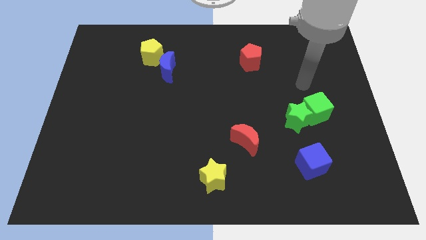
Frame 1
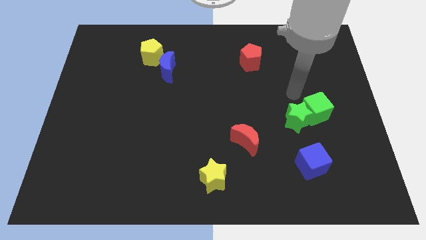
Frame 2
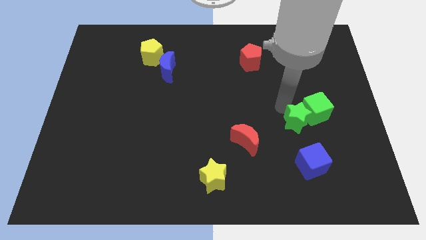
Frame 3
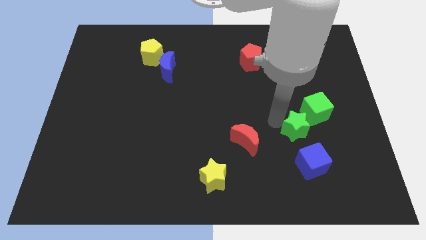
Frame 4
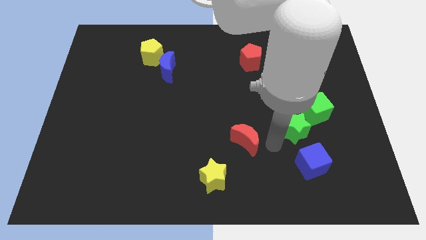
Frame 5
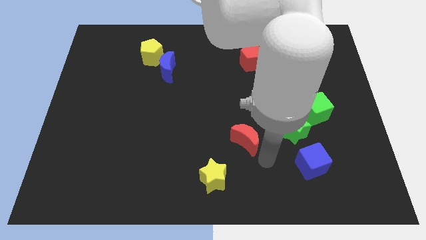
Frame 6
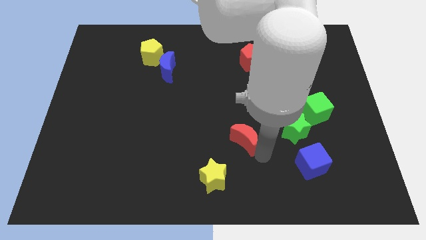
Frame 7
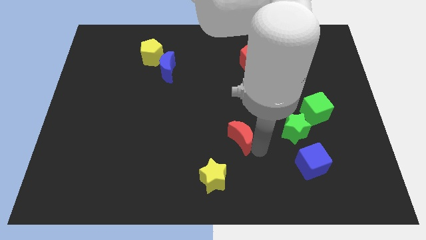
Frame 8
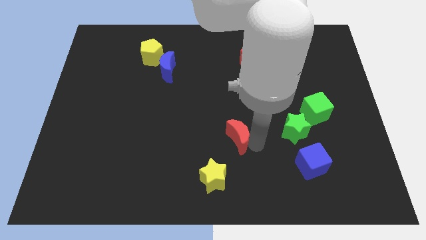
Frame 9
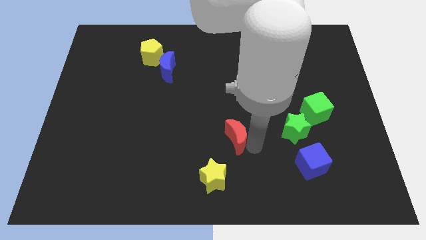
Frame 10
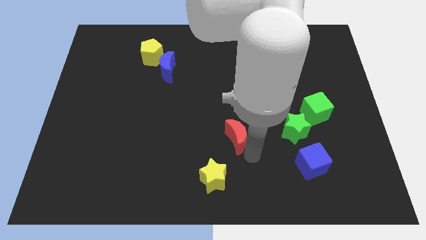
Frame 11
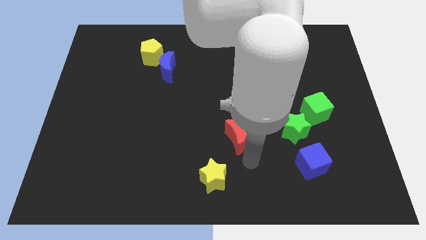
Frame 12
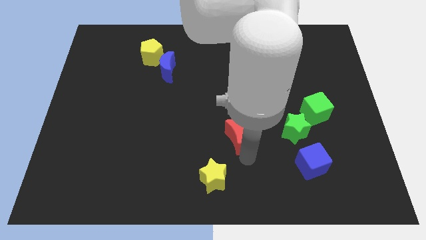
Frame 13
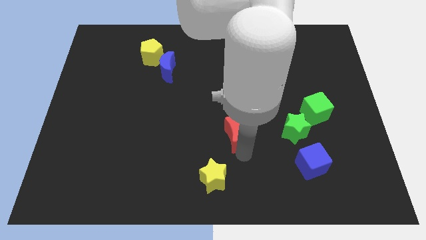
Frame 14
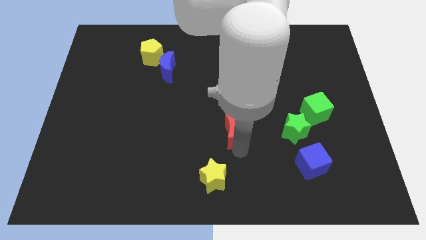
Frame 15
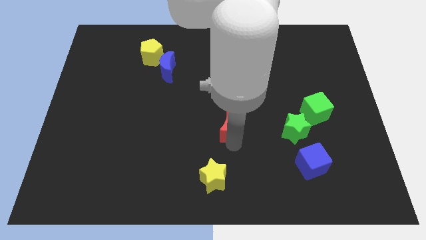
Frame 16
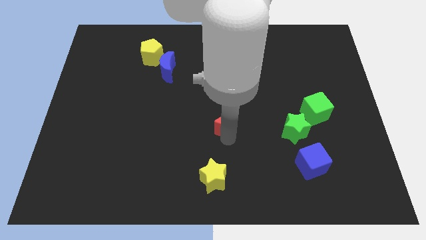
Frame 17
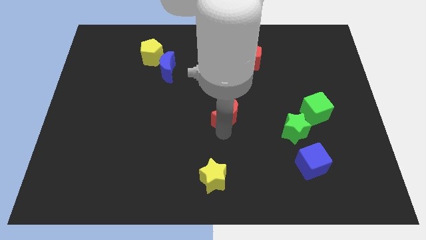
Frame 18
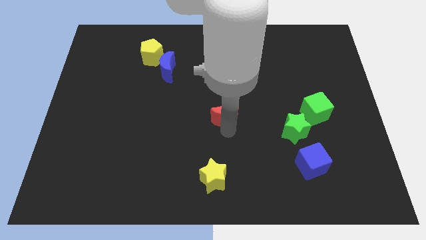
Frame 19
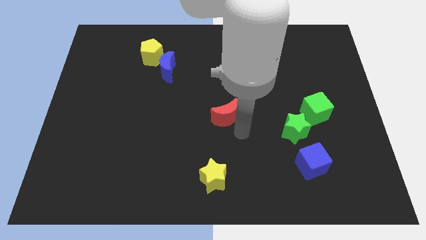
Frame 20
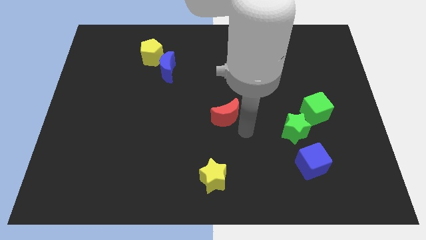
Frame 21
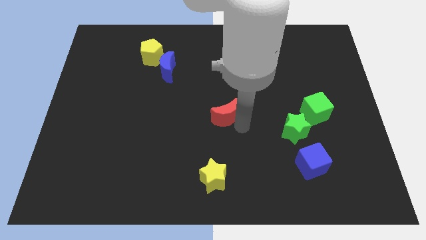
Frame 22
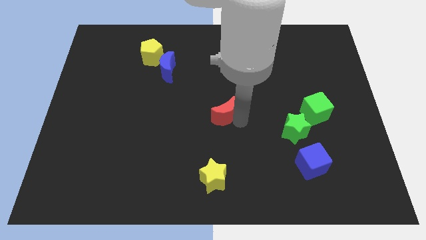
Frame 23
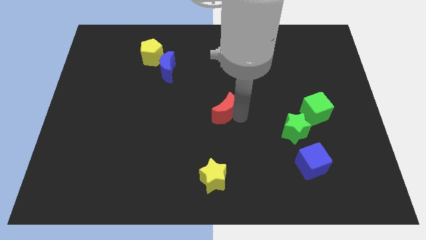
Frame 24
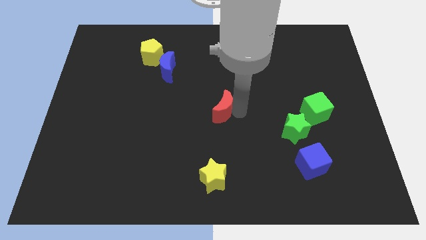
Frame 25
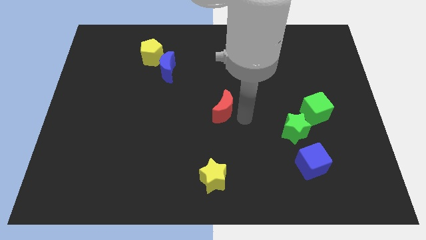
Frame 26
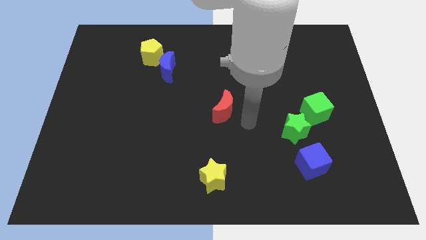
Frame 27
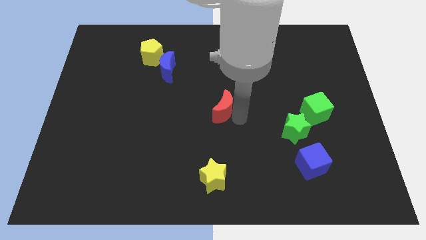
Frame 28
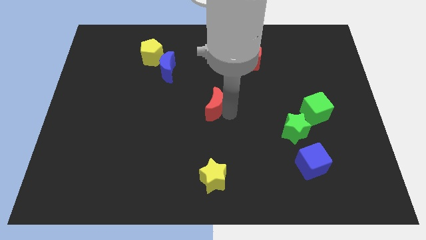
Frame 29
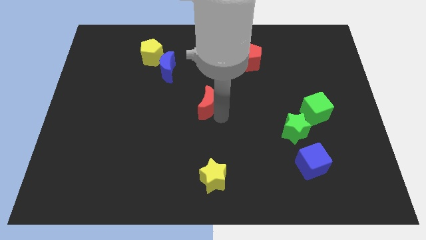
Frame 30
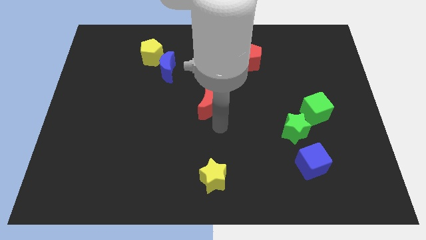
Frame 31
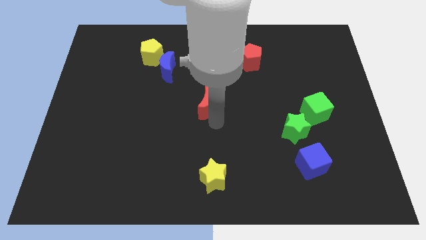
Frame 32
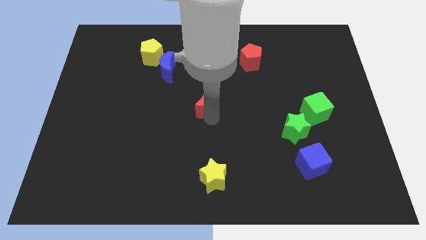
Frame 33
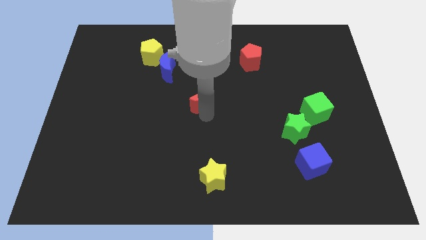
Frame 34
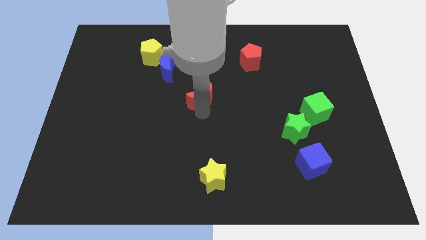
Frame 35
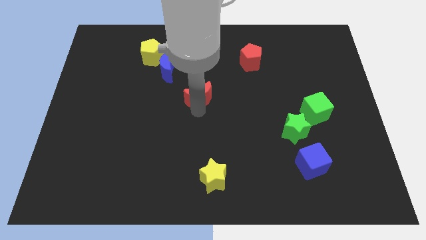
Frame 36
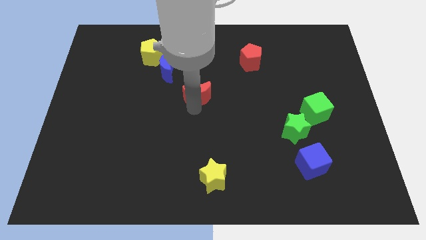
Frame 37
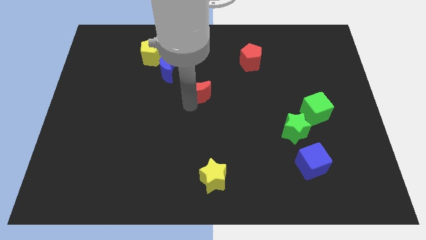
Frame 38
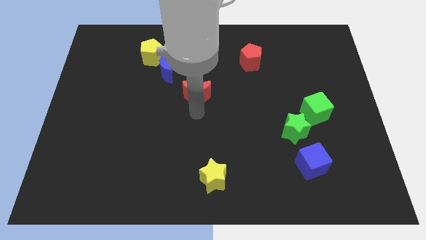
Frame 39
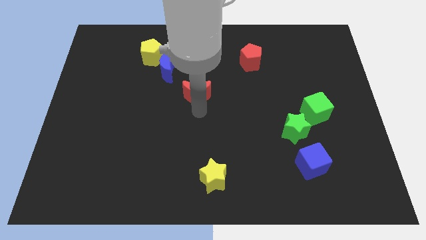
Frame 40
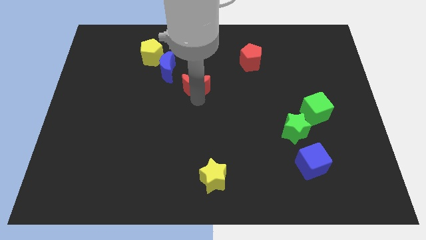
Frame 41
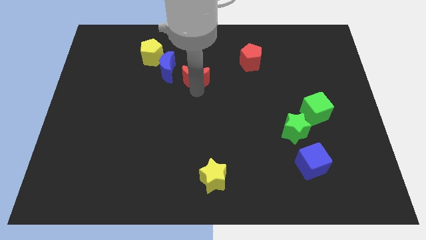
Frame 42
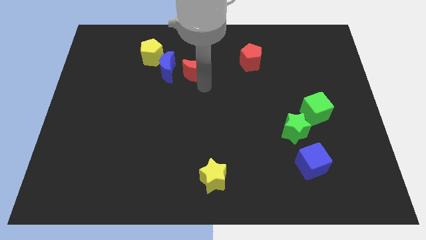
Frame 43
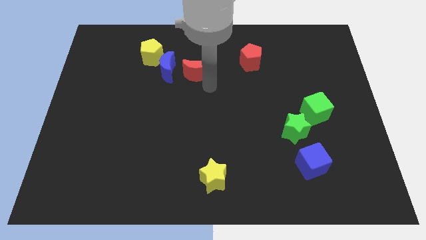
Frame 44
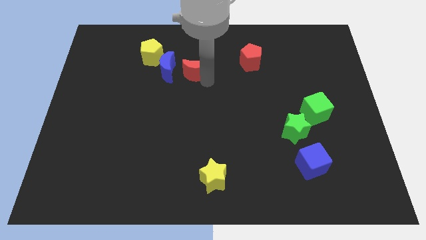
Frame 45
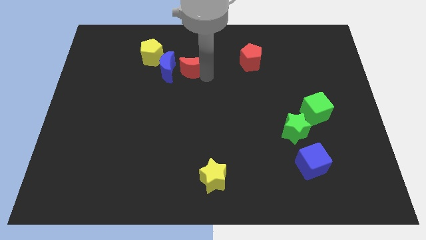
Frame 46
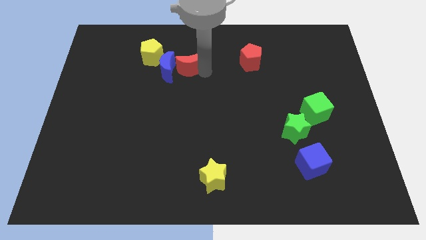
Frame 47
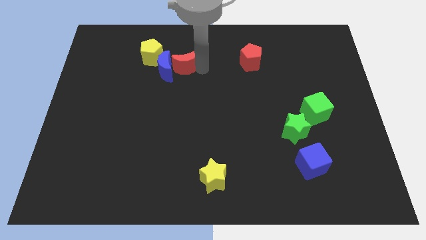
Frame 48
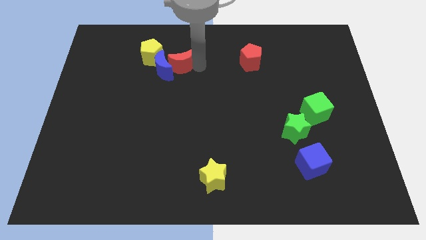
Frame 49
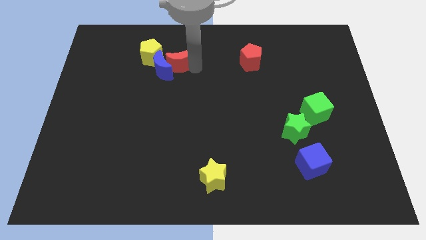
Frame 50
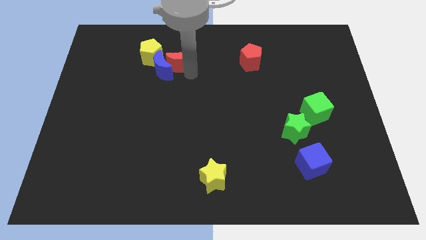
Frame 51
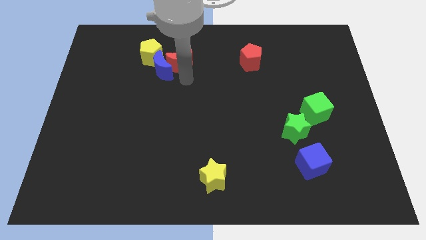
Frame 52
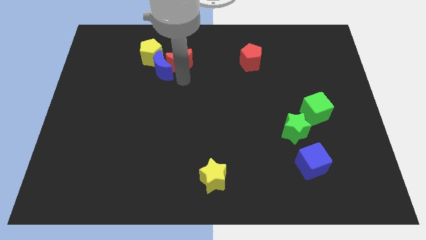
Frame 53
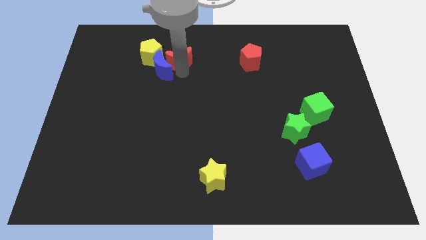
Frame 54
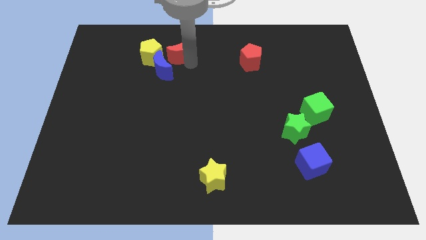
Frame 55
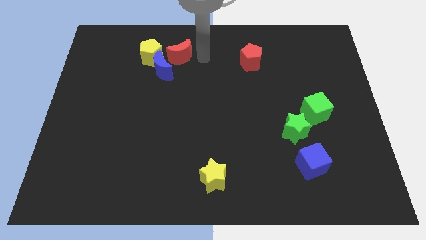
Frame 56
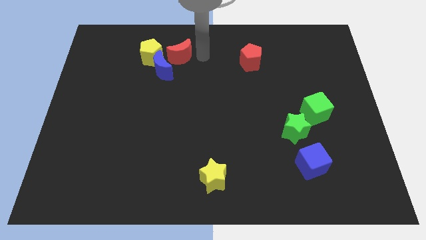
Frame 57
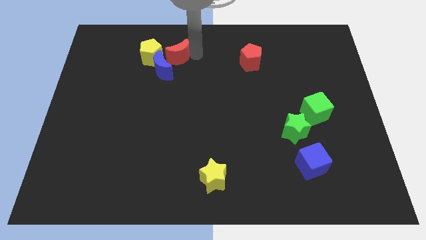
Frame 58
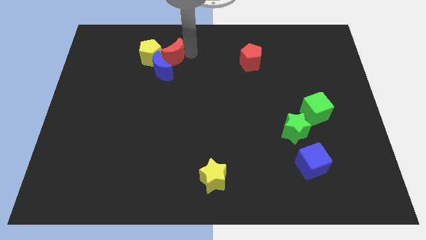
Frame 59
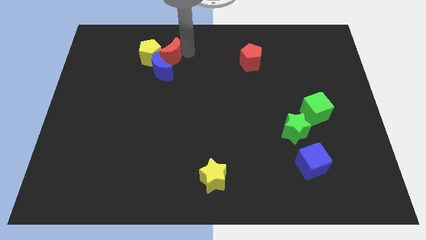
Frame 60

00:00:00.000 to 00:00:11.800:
slide the red moon close to the yellow pentagon

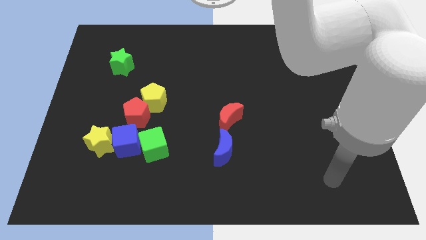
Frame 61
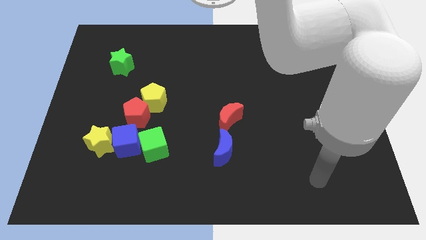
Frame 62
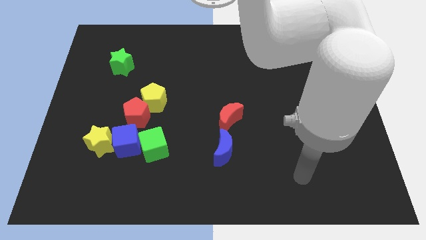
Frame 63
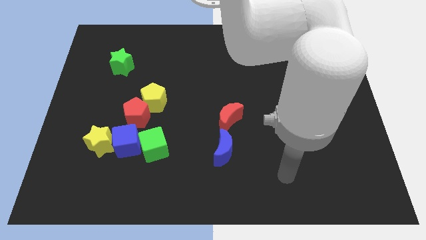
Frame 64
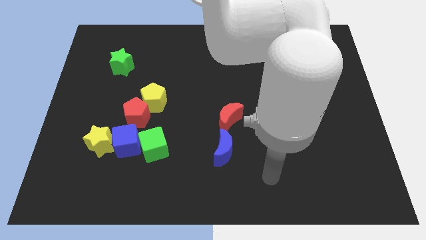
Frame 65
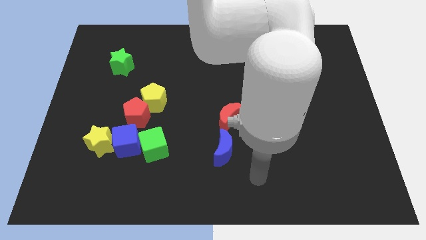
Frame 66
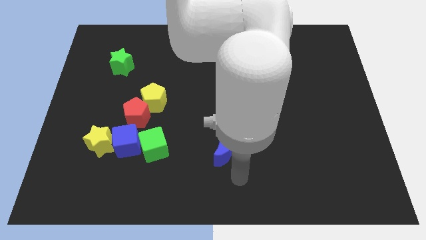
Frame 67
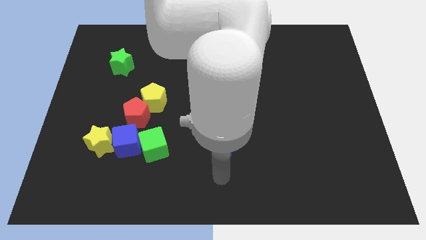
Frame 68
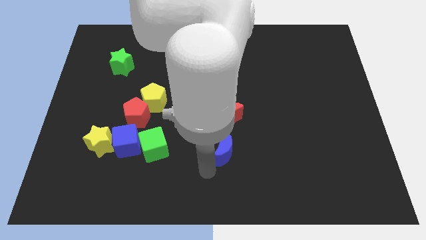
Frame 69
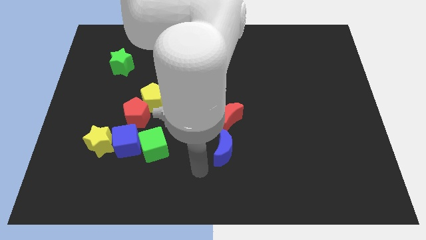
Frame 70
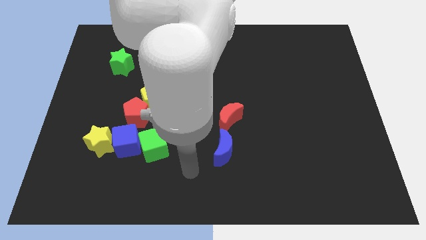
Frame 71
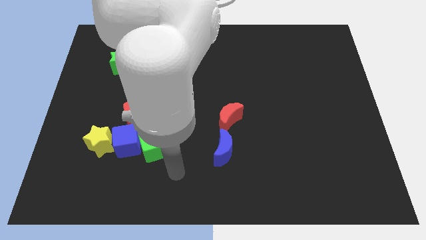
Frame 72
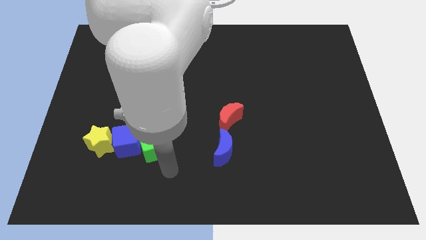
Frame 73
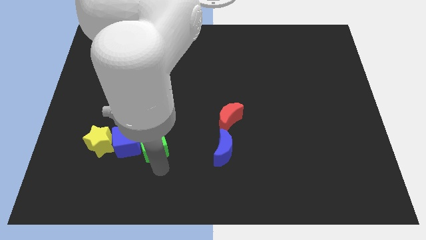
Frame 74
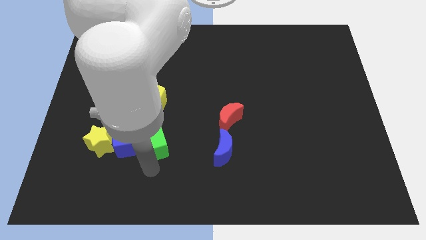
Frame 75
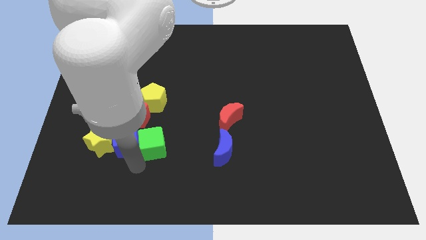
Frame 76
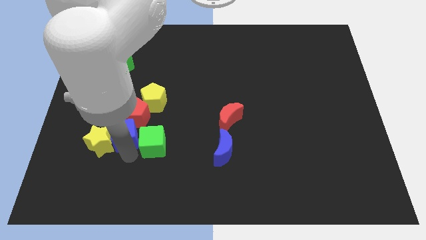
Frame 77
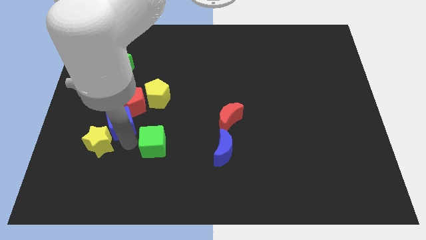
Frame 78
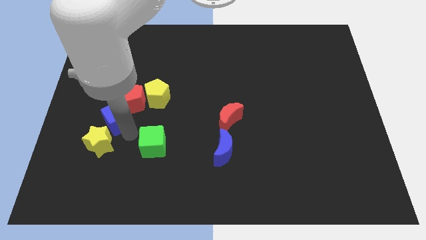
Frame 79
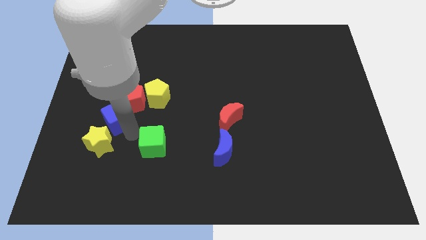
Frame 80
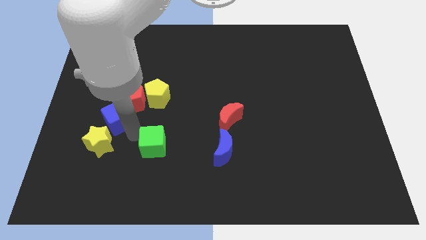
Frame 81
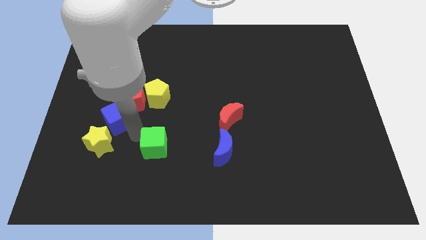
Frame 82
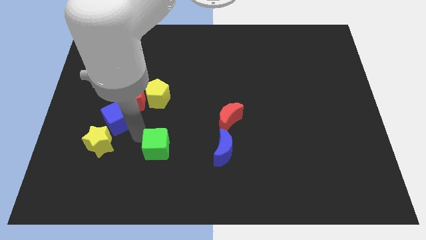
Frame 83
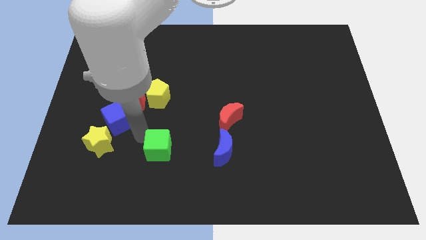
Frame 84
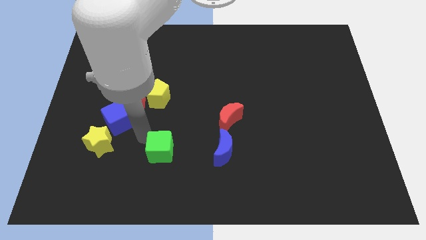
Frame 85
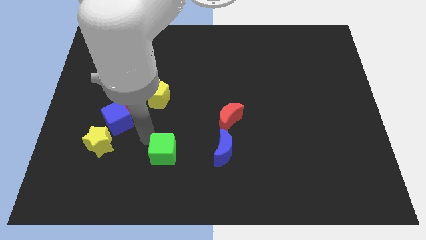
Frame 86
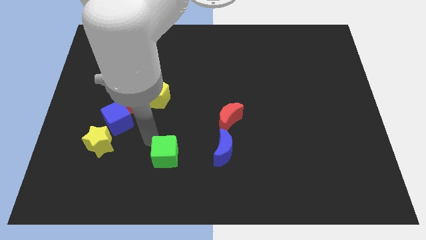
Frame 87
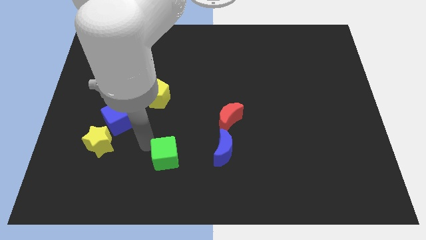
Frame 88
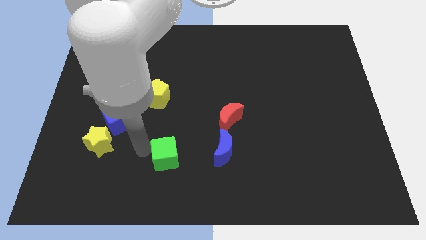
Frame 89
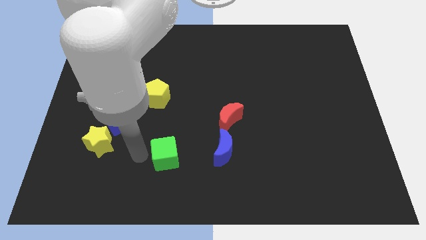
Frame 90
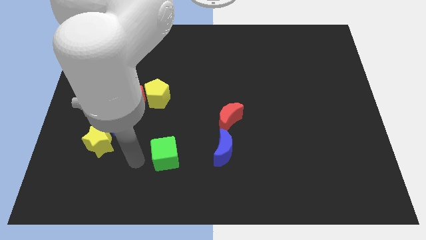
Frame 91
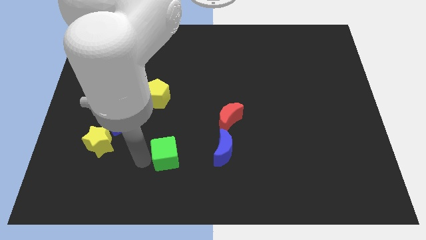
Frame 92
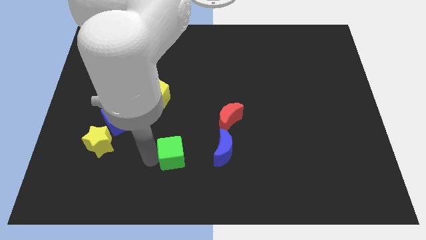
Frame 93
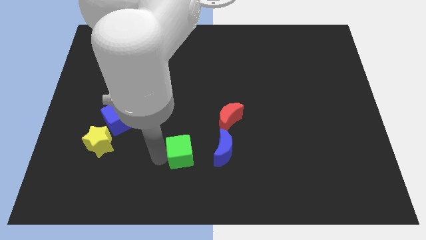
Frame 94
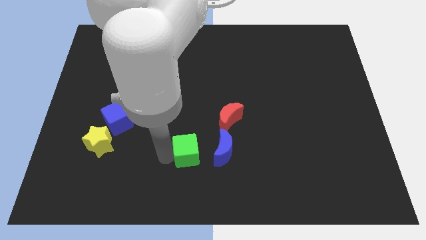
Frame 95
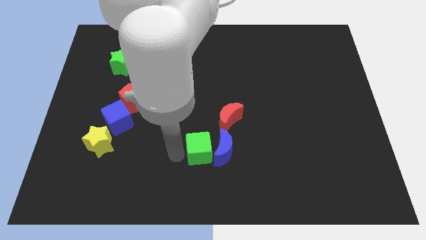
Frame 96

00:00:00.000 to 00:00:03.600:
put the green cube close to the blue moon
